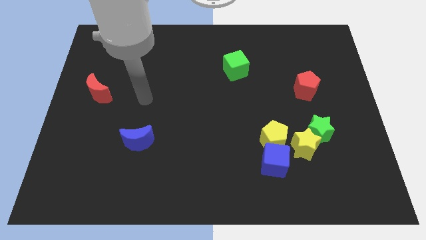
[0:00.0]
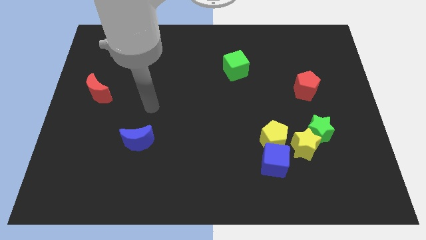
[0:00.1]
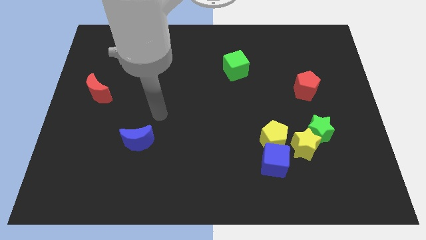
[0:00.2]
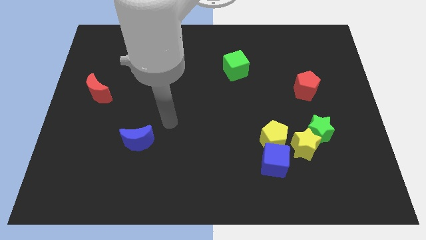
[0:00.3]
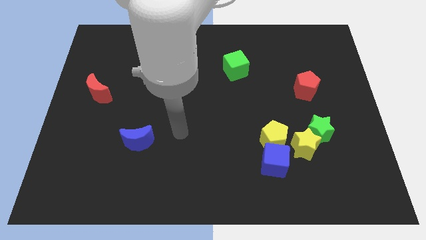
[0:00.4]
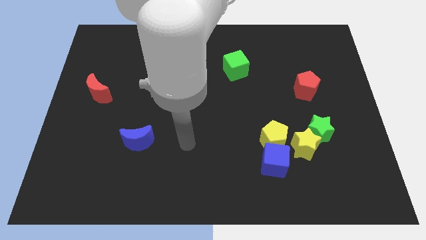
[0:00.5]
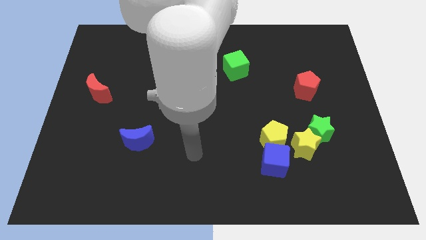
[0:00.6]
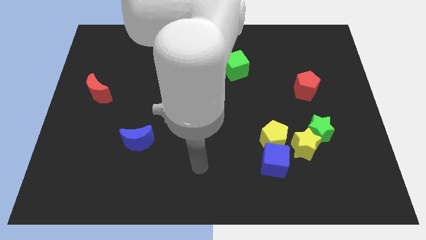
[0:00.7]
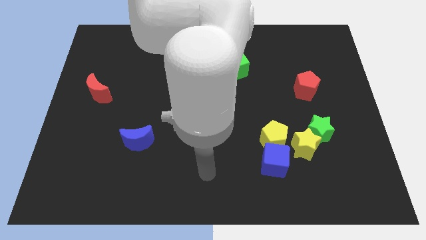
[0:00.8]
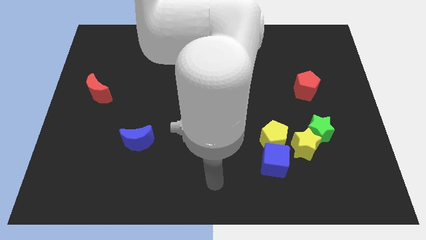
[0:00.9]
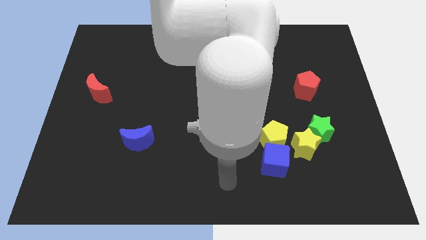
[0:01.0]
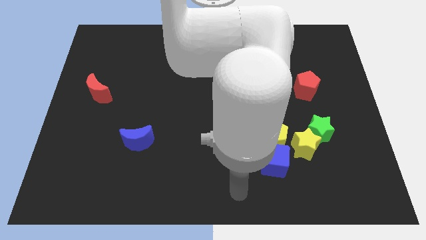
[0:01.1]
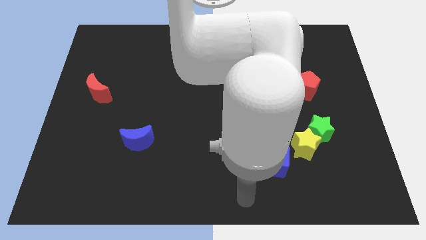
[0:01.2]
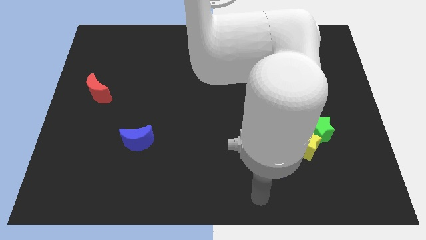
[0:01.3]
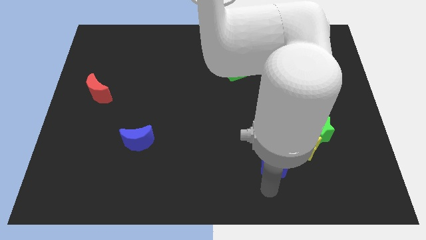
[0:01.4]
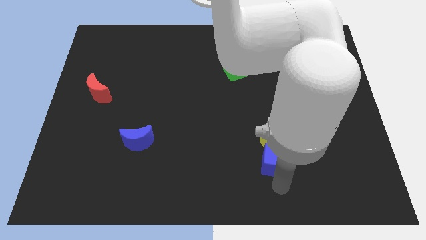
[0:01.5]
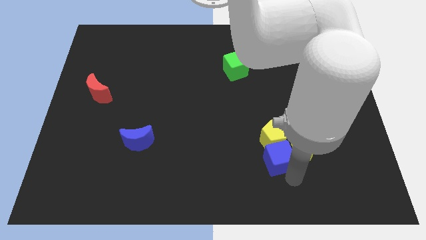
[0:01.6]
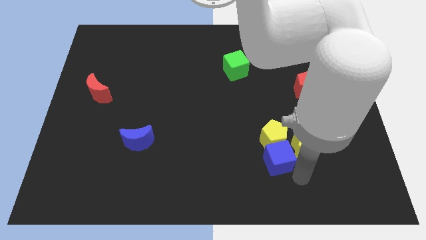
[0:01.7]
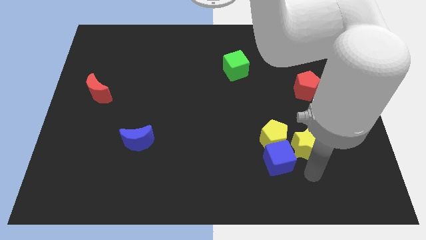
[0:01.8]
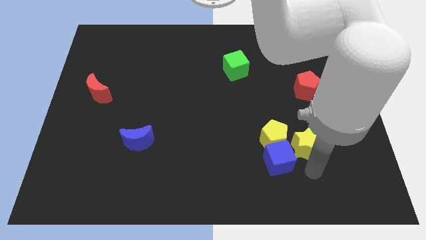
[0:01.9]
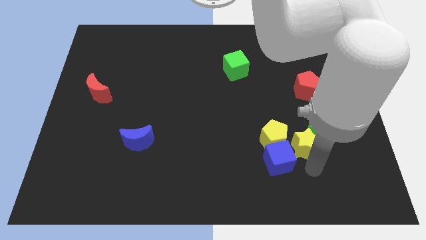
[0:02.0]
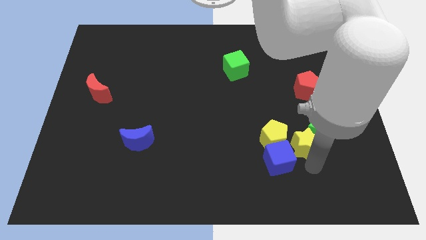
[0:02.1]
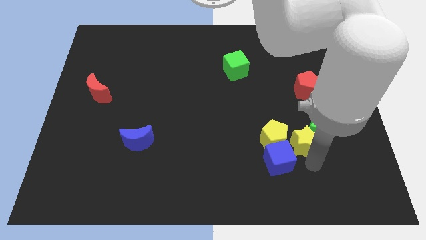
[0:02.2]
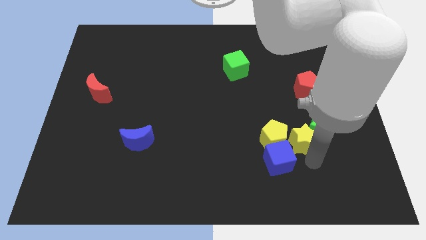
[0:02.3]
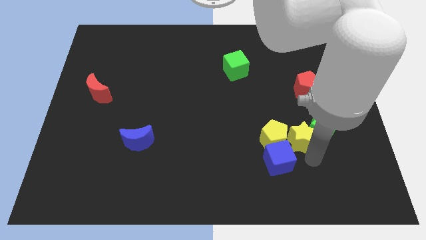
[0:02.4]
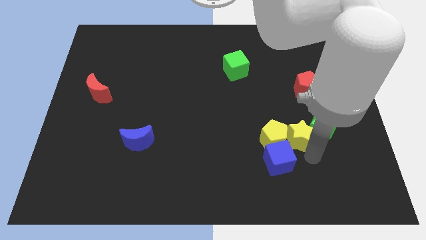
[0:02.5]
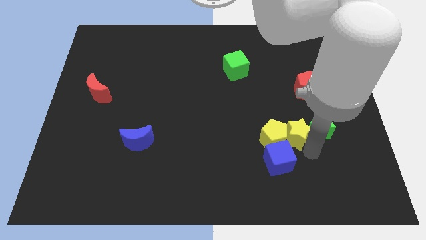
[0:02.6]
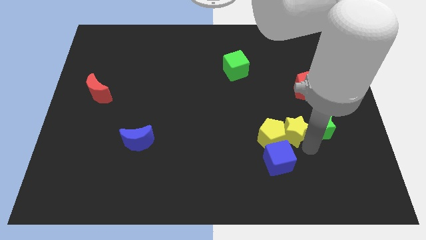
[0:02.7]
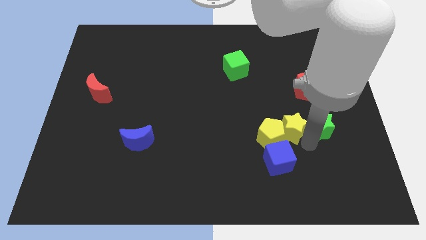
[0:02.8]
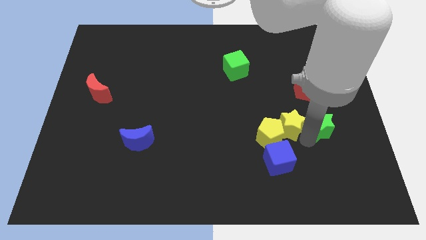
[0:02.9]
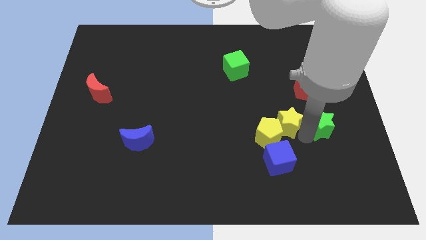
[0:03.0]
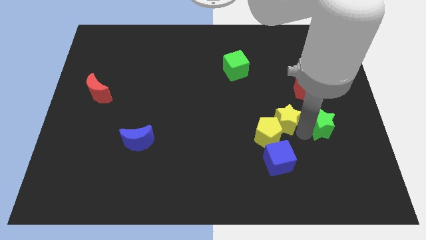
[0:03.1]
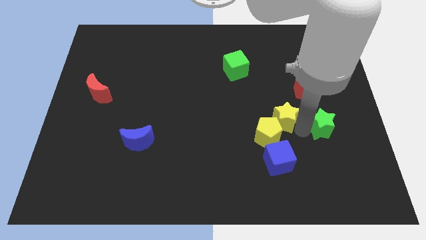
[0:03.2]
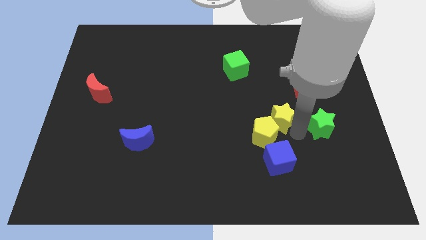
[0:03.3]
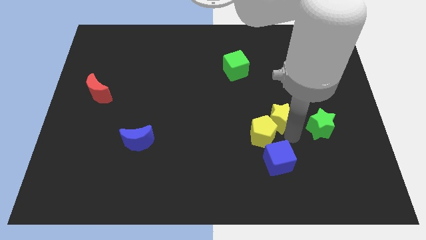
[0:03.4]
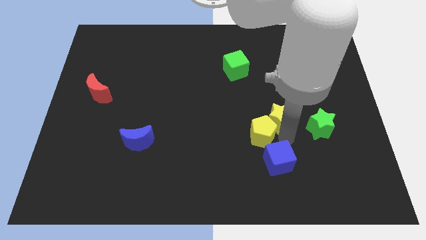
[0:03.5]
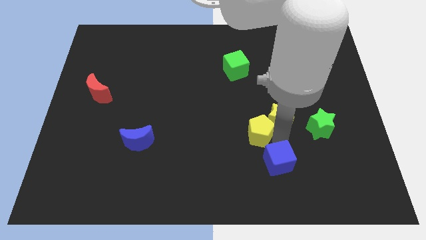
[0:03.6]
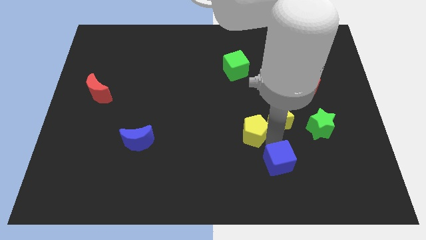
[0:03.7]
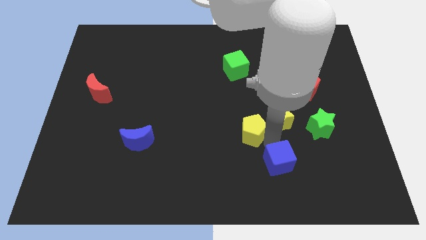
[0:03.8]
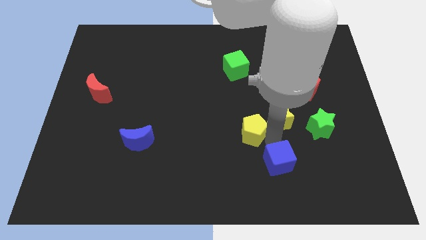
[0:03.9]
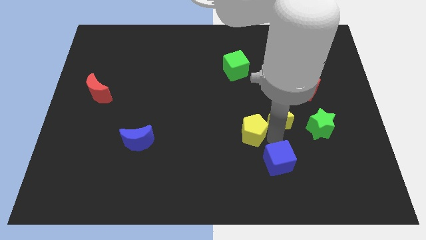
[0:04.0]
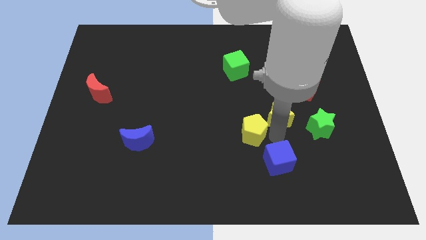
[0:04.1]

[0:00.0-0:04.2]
slightly slide the yellow star up

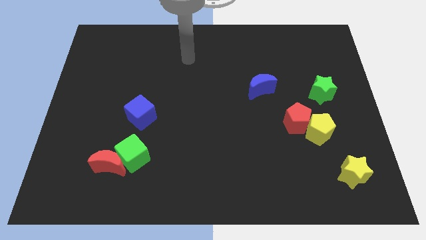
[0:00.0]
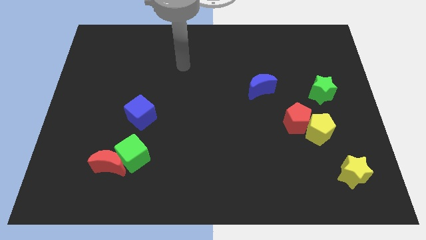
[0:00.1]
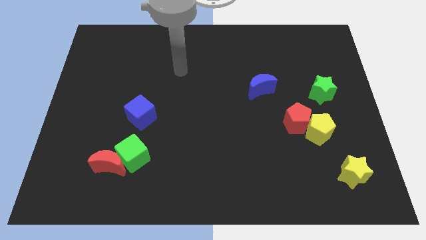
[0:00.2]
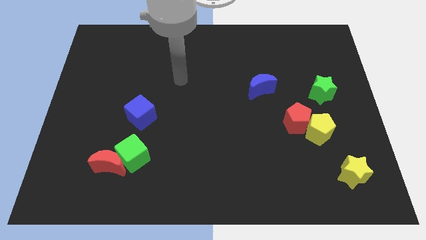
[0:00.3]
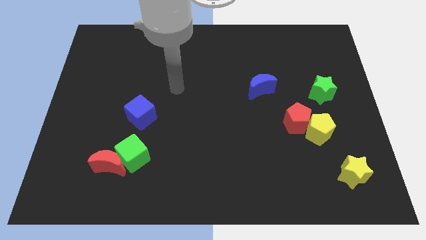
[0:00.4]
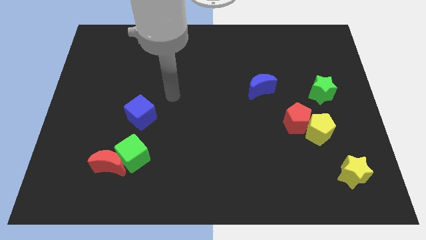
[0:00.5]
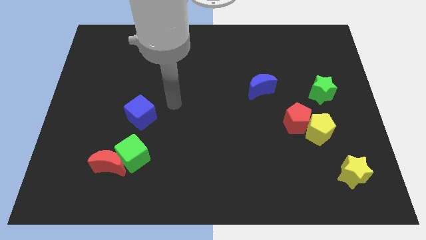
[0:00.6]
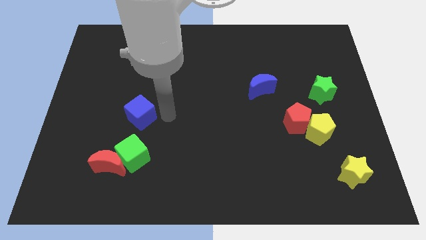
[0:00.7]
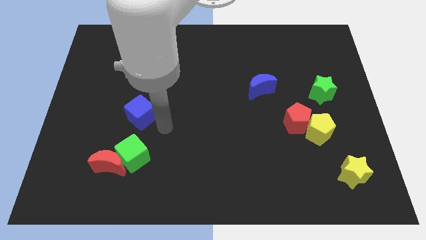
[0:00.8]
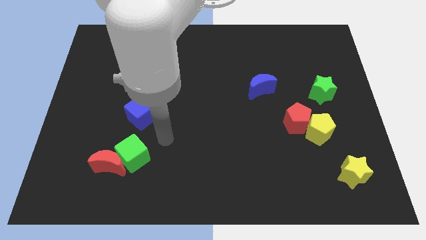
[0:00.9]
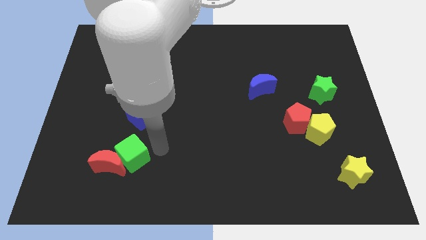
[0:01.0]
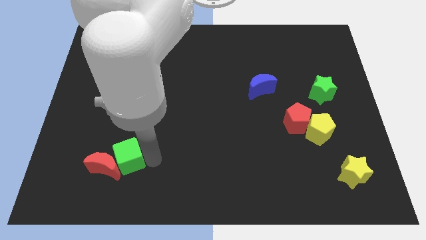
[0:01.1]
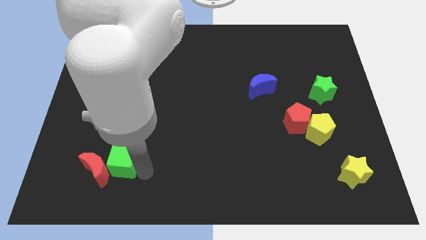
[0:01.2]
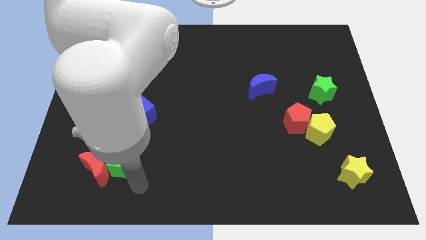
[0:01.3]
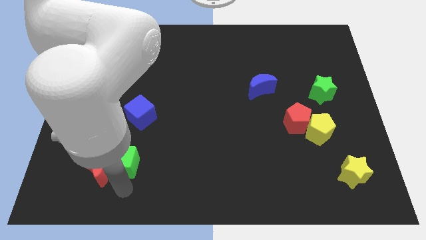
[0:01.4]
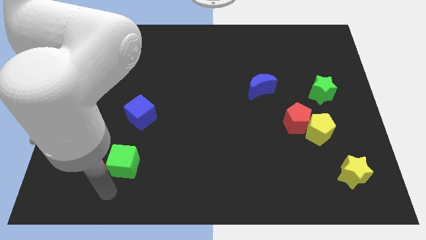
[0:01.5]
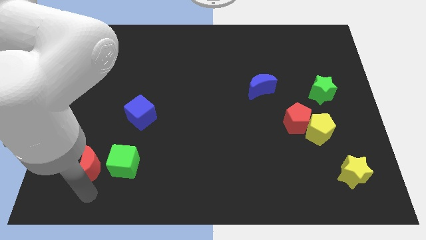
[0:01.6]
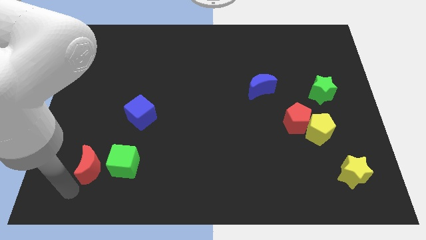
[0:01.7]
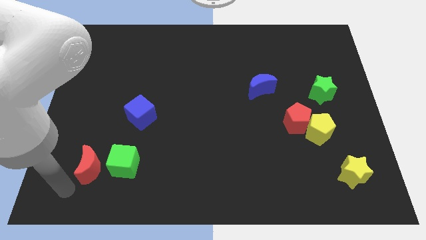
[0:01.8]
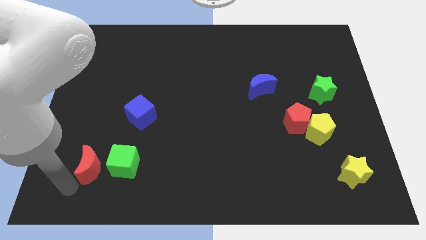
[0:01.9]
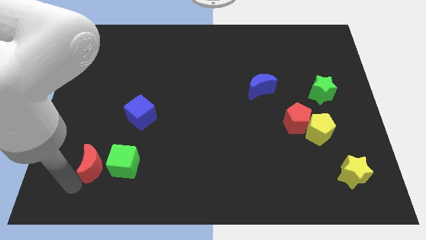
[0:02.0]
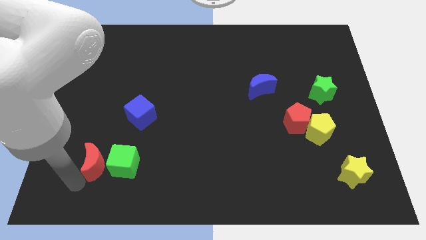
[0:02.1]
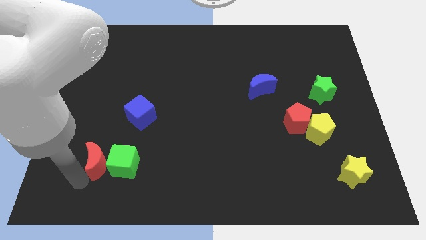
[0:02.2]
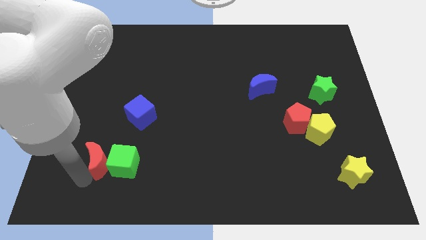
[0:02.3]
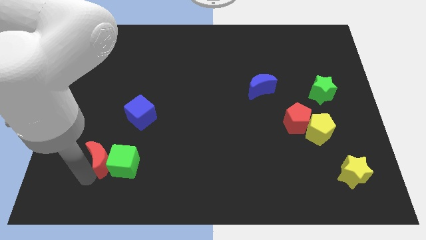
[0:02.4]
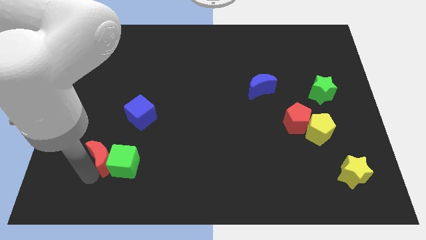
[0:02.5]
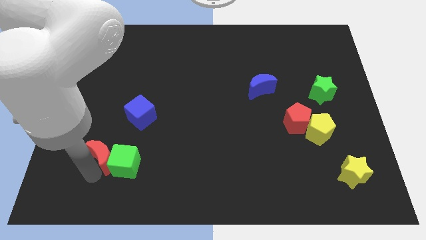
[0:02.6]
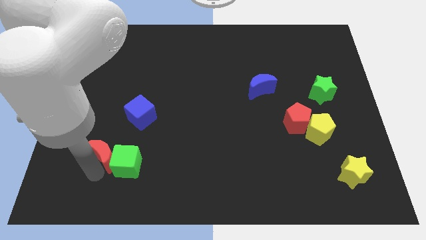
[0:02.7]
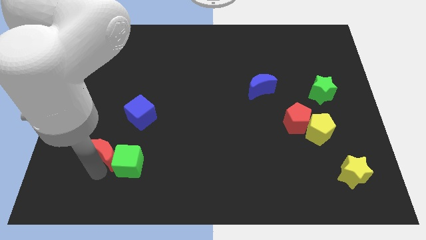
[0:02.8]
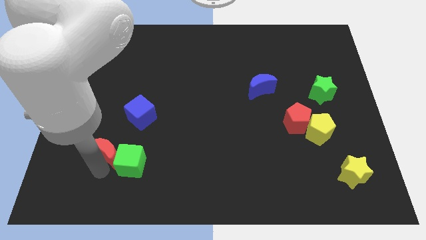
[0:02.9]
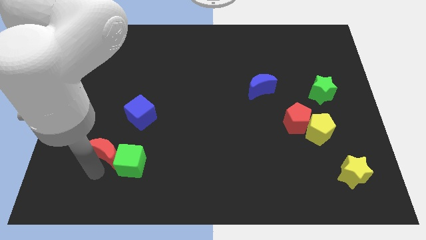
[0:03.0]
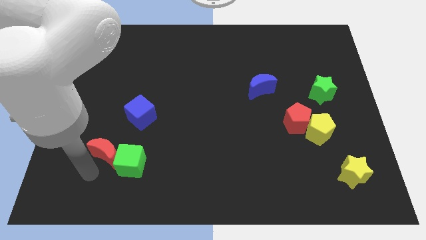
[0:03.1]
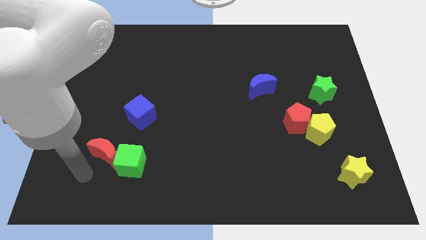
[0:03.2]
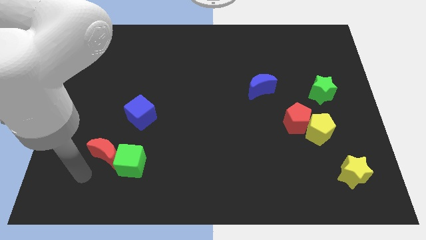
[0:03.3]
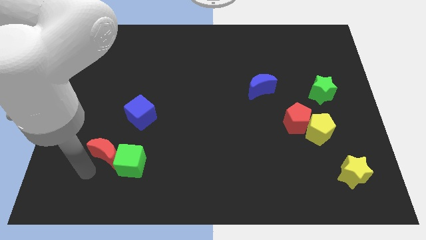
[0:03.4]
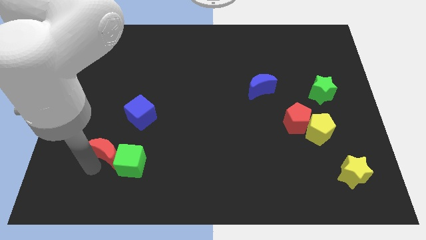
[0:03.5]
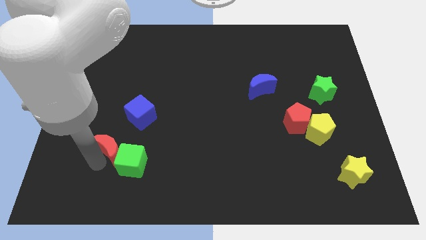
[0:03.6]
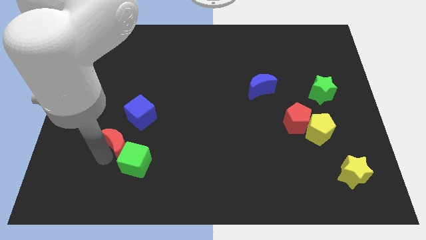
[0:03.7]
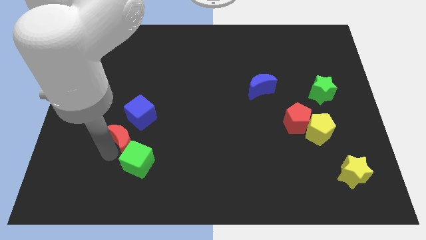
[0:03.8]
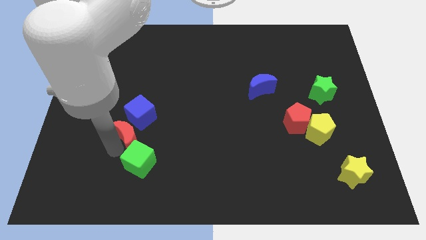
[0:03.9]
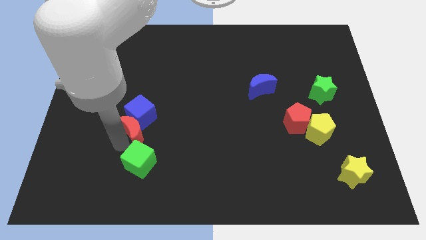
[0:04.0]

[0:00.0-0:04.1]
move the red moon upwards and then right a bit
